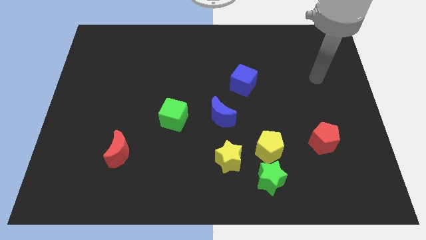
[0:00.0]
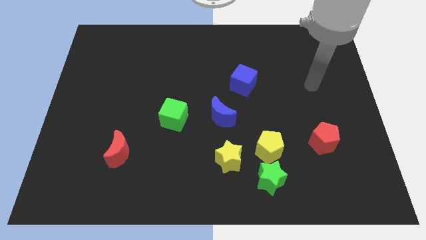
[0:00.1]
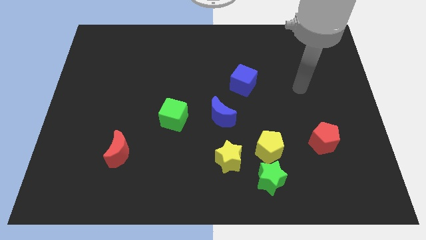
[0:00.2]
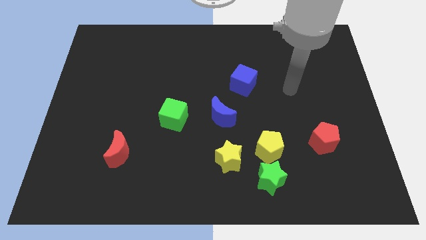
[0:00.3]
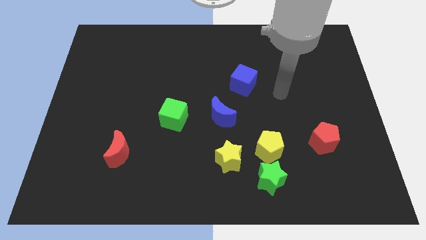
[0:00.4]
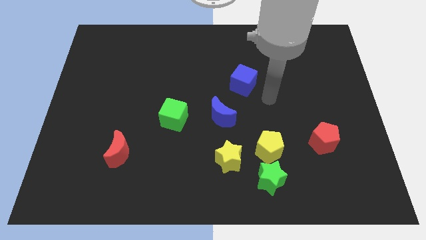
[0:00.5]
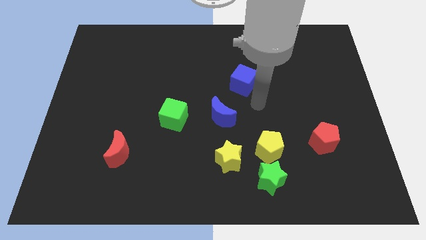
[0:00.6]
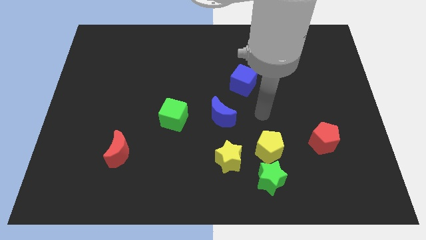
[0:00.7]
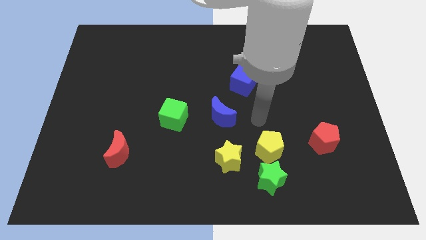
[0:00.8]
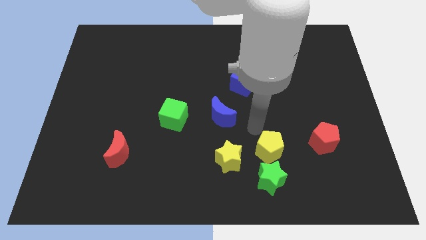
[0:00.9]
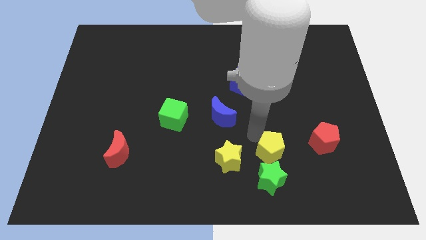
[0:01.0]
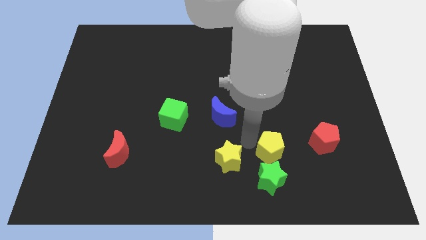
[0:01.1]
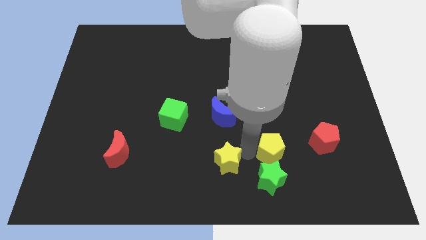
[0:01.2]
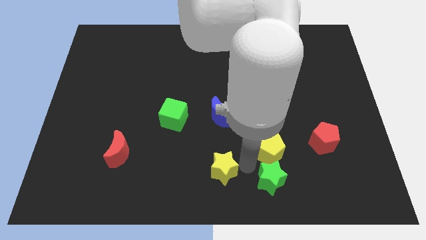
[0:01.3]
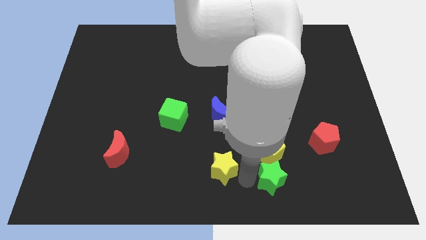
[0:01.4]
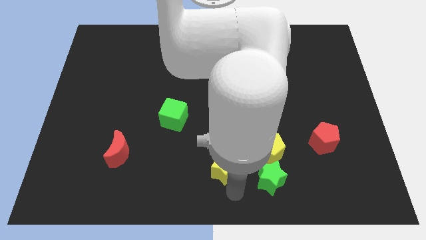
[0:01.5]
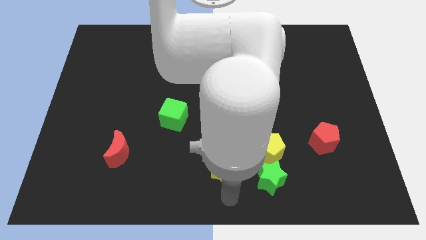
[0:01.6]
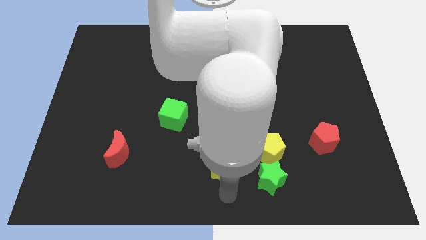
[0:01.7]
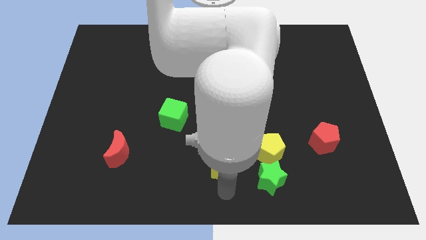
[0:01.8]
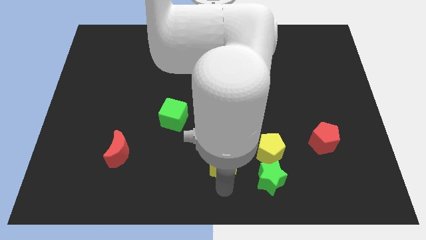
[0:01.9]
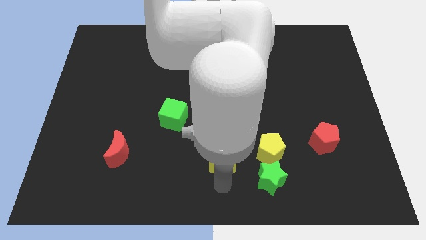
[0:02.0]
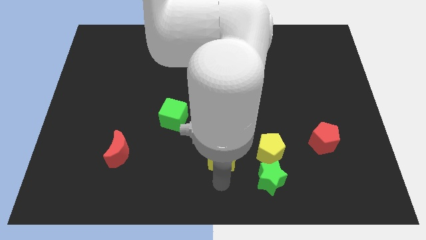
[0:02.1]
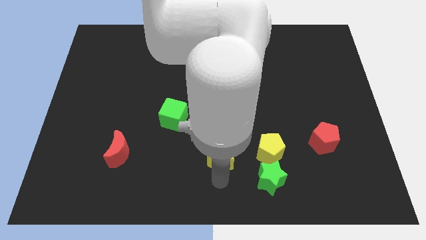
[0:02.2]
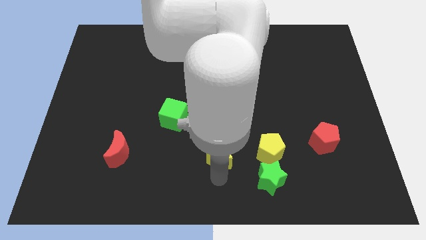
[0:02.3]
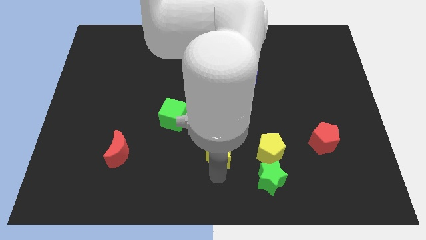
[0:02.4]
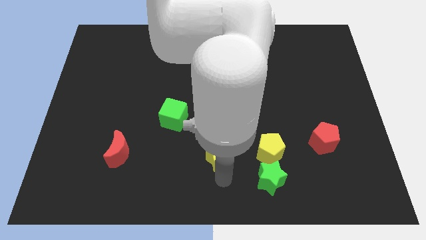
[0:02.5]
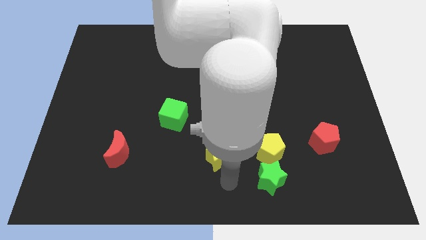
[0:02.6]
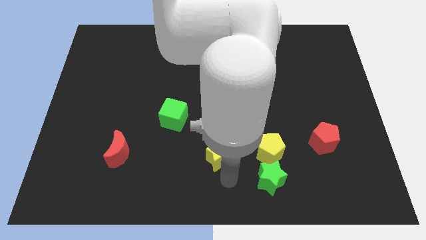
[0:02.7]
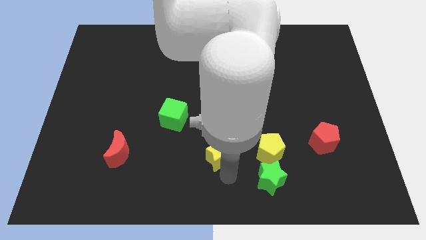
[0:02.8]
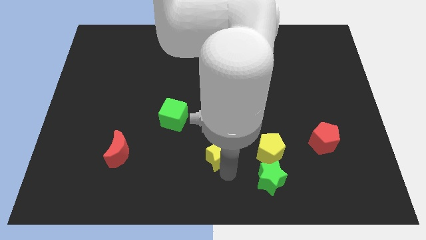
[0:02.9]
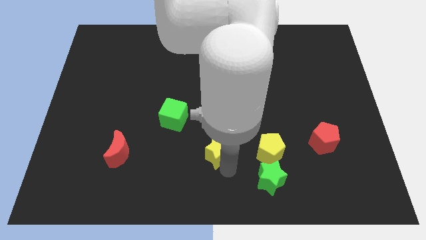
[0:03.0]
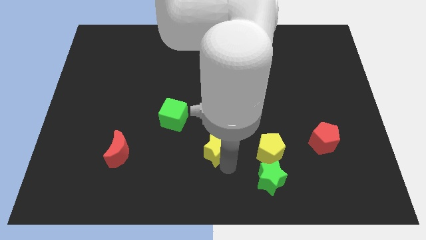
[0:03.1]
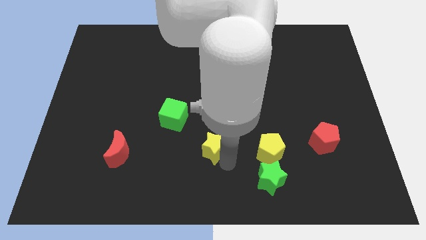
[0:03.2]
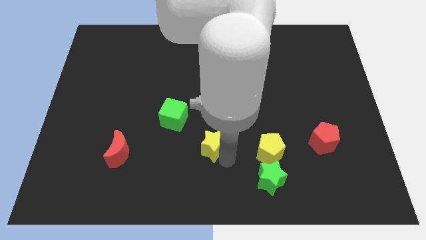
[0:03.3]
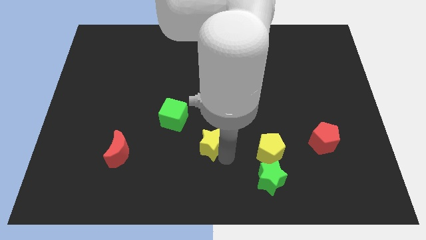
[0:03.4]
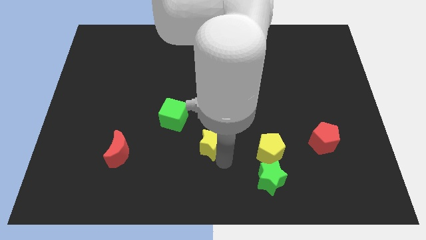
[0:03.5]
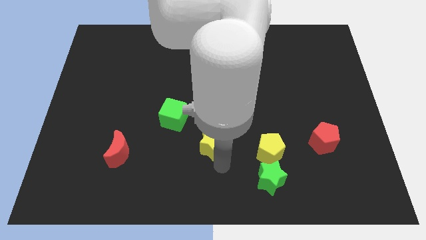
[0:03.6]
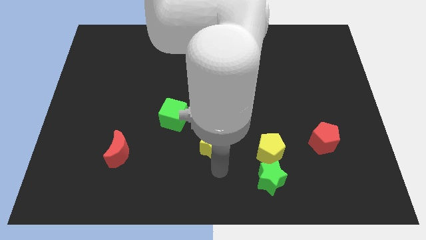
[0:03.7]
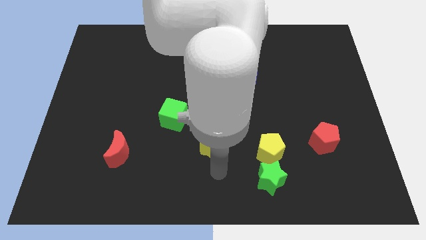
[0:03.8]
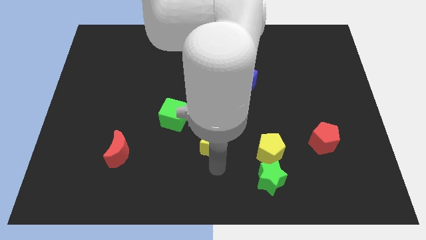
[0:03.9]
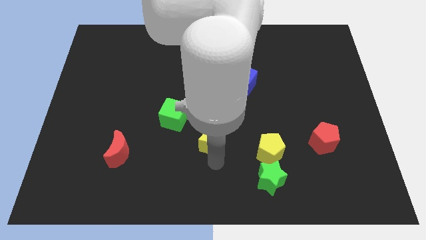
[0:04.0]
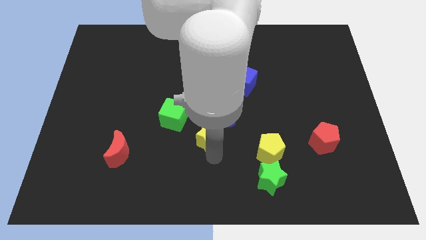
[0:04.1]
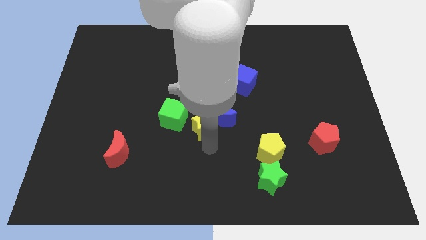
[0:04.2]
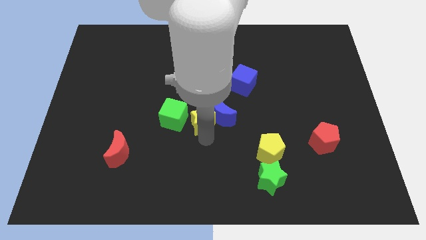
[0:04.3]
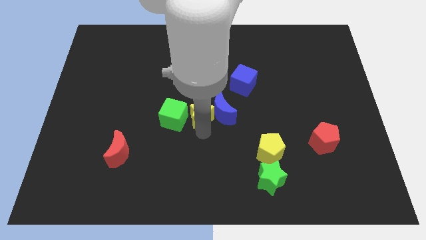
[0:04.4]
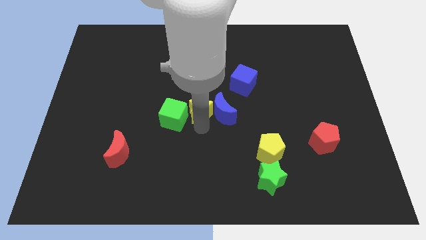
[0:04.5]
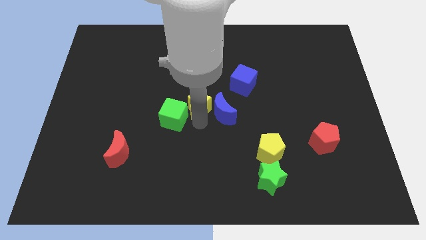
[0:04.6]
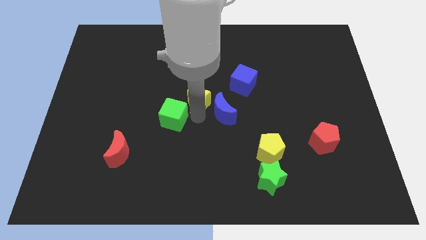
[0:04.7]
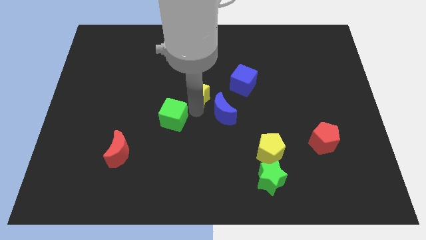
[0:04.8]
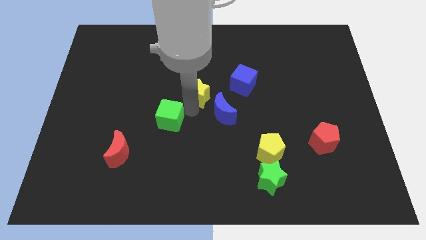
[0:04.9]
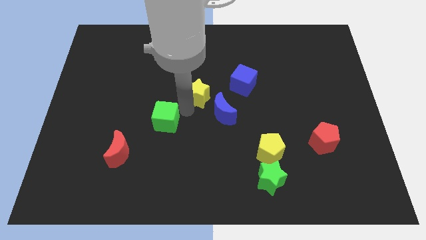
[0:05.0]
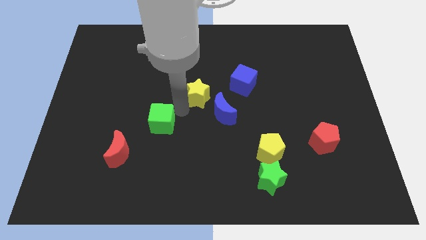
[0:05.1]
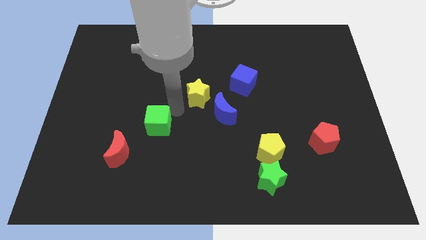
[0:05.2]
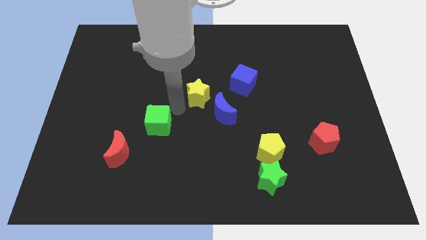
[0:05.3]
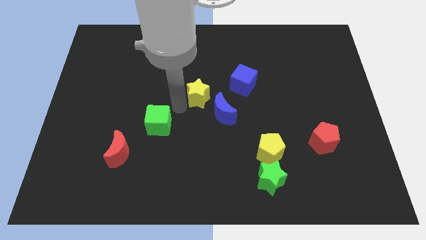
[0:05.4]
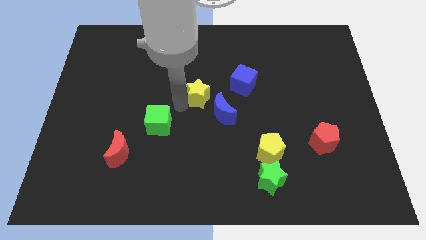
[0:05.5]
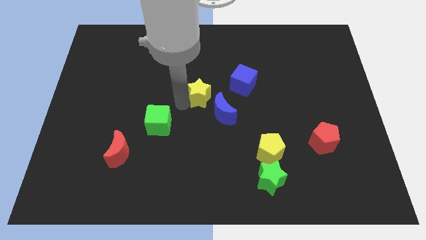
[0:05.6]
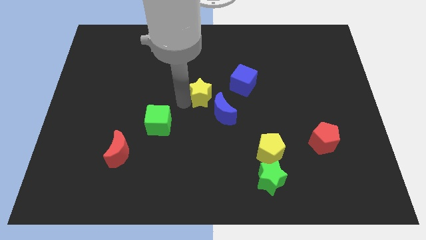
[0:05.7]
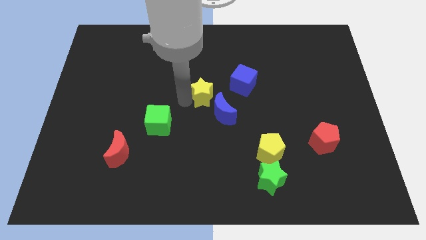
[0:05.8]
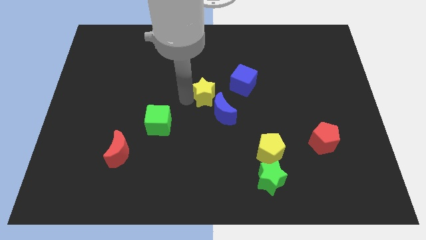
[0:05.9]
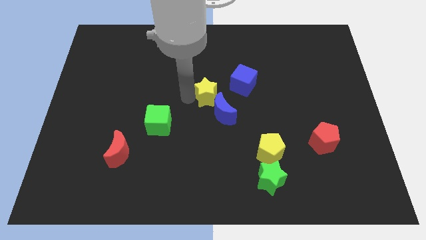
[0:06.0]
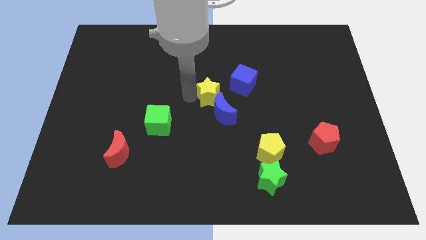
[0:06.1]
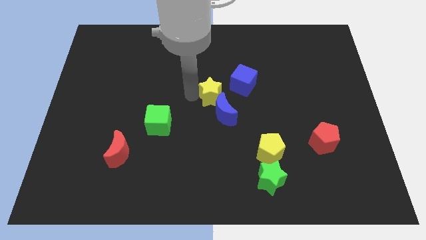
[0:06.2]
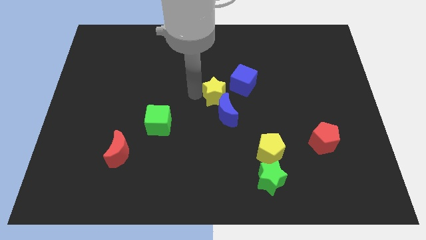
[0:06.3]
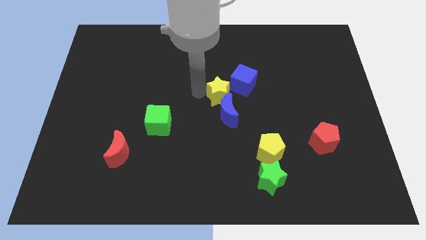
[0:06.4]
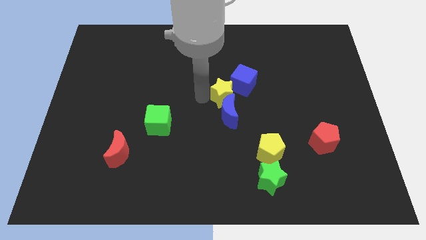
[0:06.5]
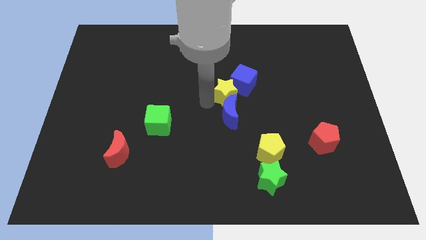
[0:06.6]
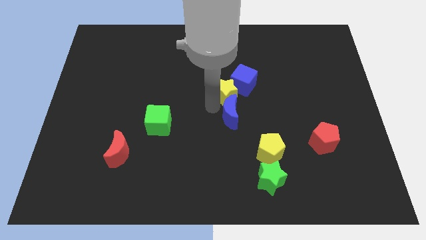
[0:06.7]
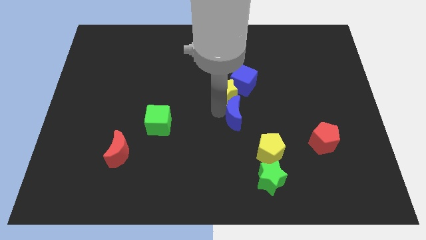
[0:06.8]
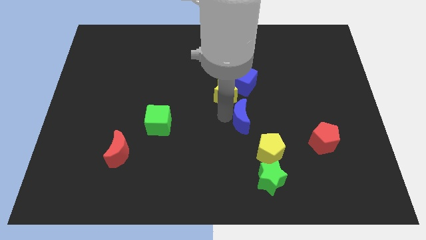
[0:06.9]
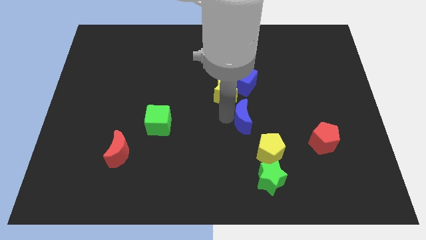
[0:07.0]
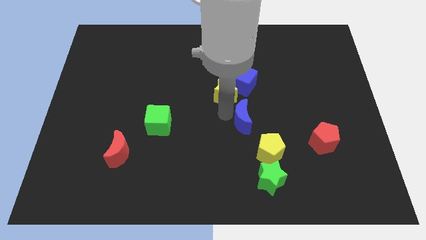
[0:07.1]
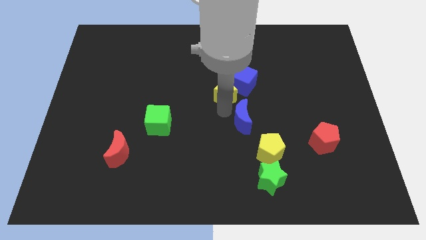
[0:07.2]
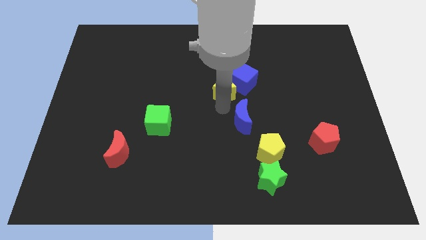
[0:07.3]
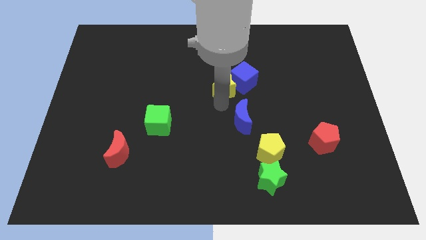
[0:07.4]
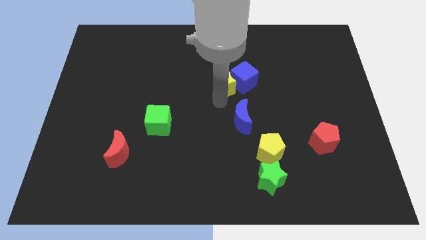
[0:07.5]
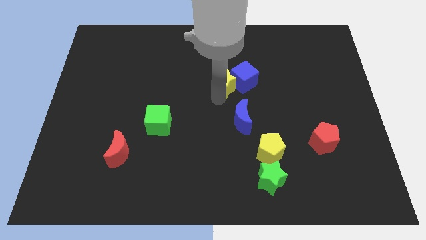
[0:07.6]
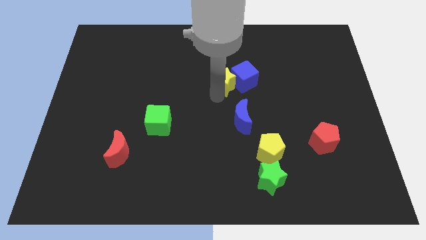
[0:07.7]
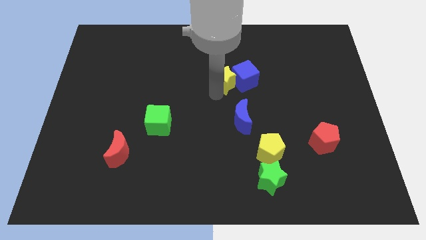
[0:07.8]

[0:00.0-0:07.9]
slide the yellow star to the top left side of the blue cube
